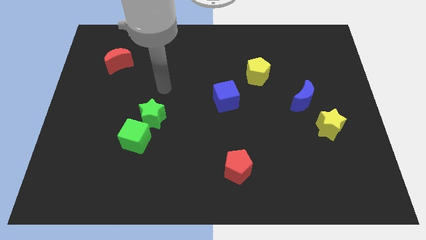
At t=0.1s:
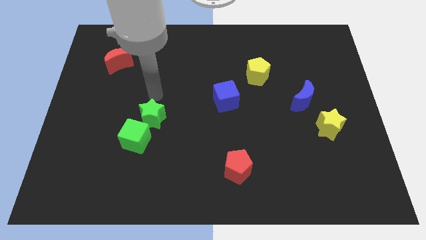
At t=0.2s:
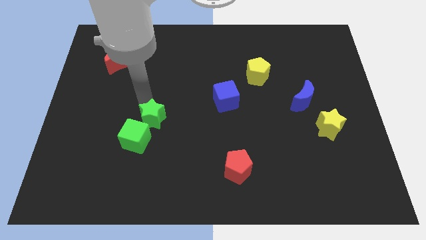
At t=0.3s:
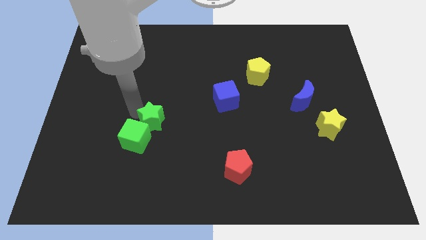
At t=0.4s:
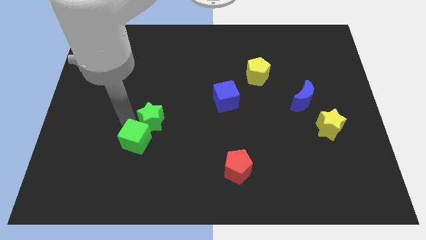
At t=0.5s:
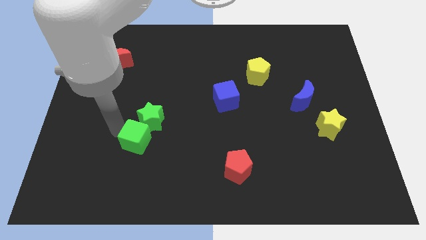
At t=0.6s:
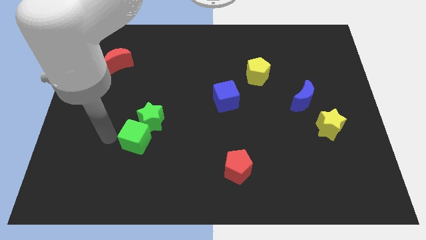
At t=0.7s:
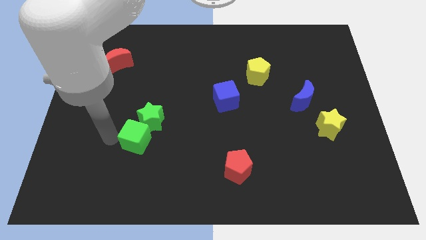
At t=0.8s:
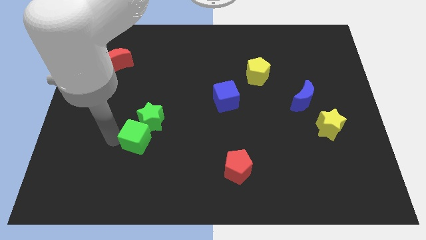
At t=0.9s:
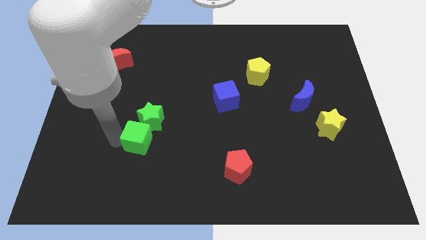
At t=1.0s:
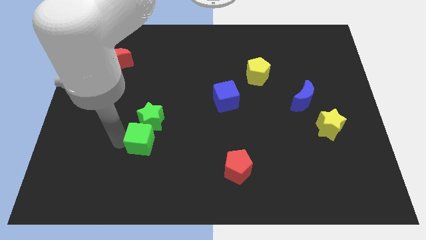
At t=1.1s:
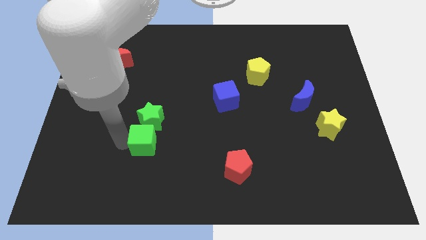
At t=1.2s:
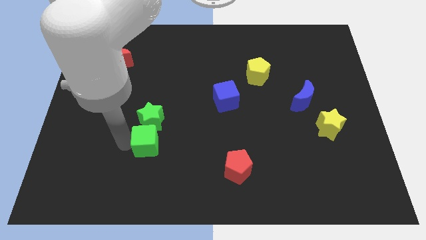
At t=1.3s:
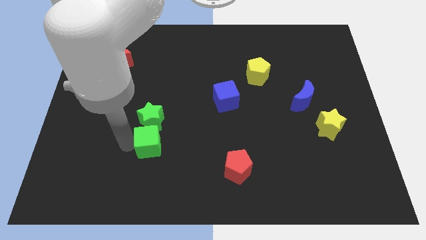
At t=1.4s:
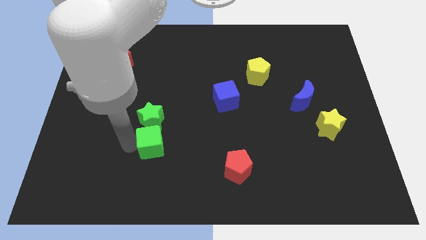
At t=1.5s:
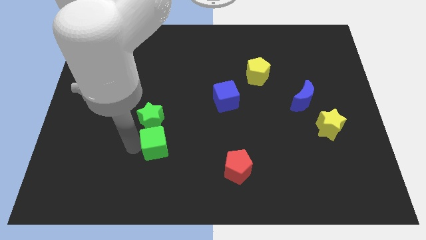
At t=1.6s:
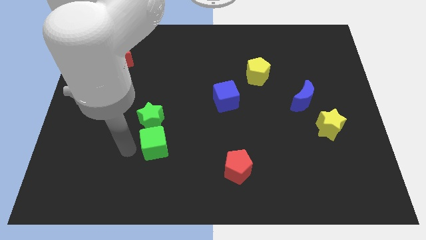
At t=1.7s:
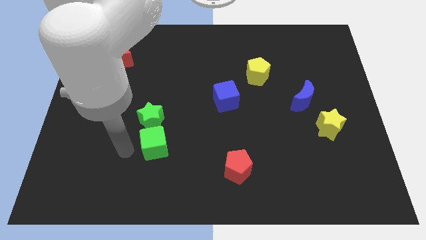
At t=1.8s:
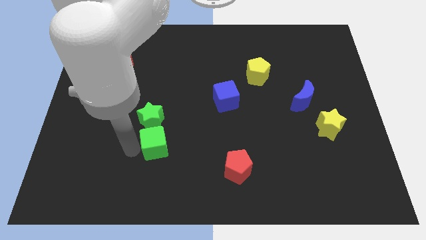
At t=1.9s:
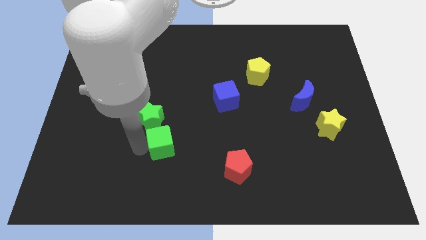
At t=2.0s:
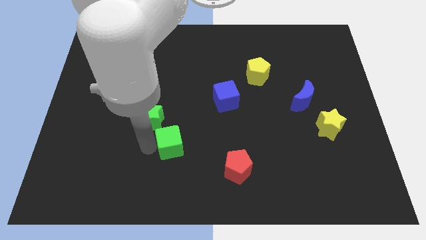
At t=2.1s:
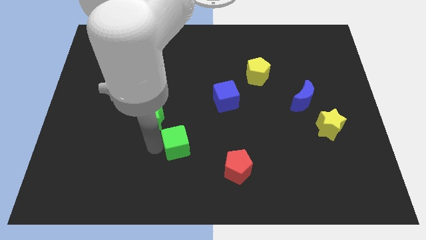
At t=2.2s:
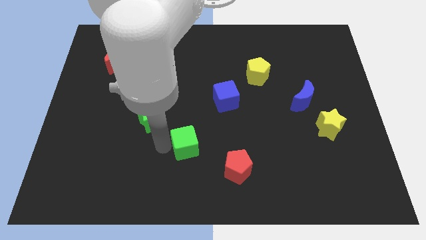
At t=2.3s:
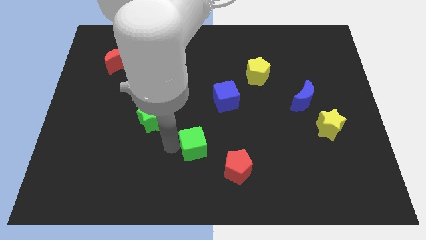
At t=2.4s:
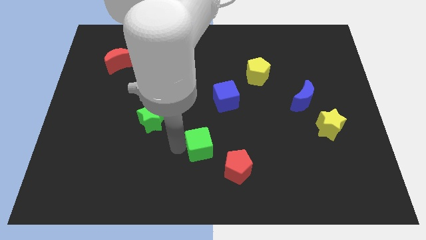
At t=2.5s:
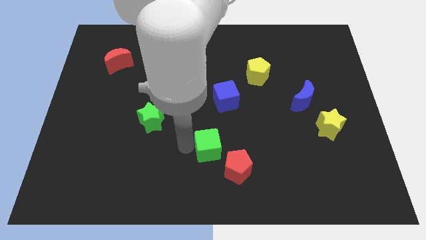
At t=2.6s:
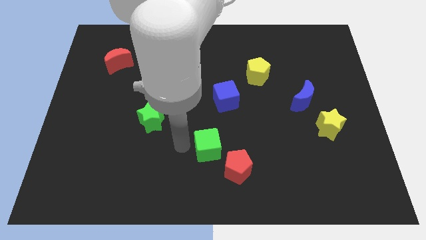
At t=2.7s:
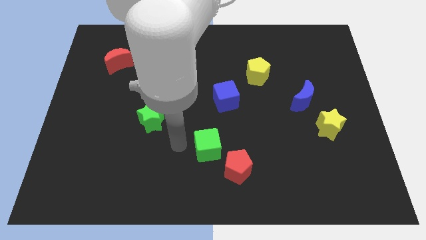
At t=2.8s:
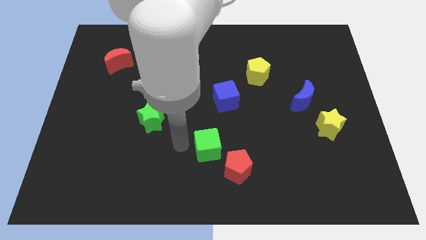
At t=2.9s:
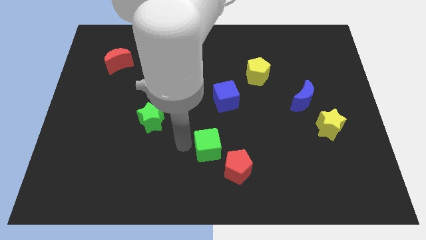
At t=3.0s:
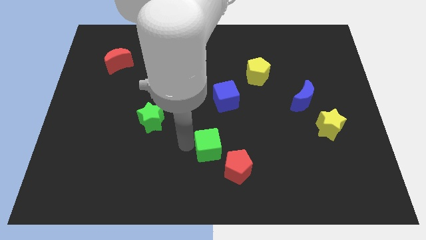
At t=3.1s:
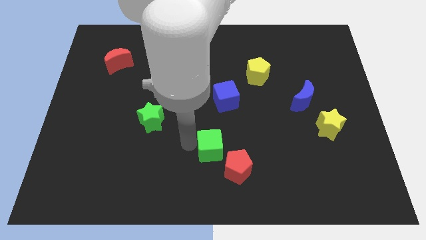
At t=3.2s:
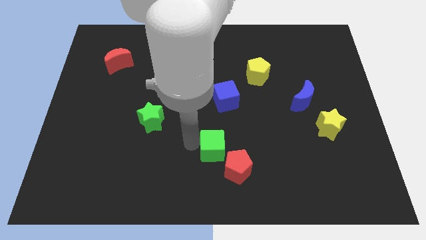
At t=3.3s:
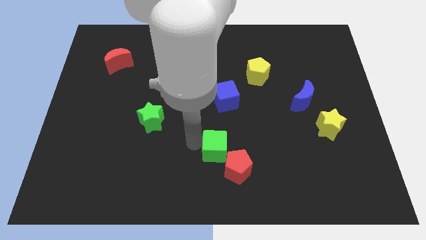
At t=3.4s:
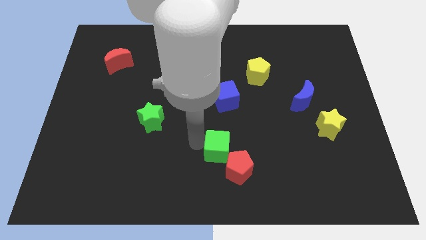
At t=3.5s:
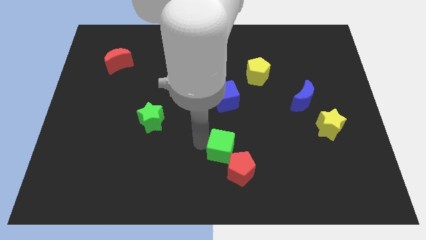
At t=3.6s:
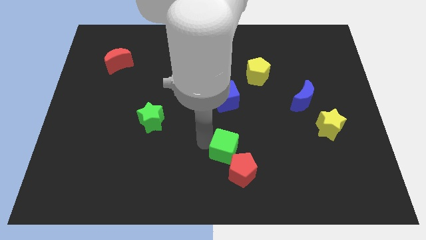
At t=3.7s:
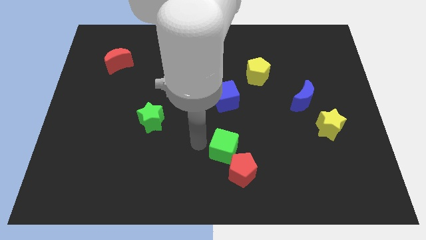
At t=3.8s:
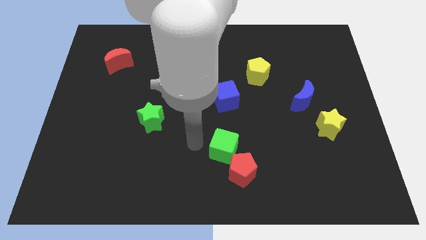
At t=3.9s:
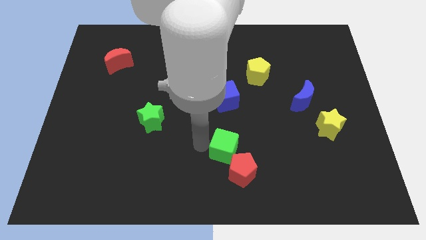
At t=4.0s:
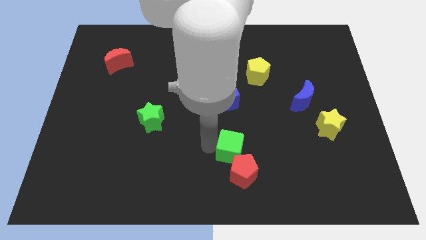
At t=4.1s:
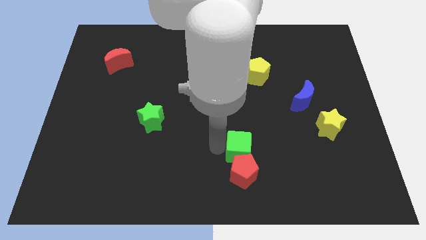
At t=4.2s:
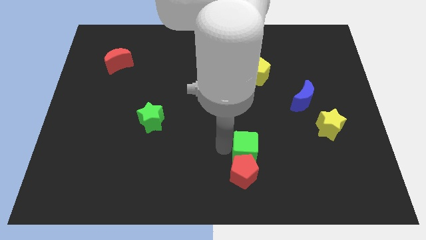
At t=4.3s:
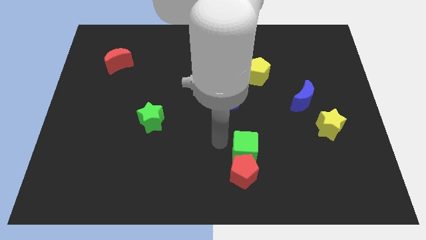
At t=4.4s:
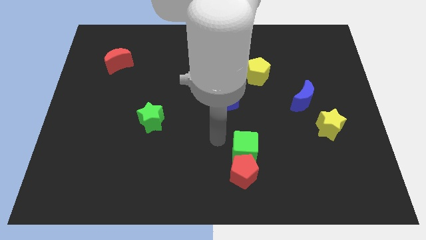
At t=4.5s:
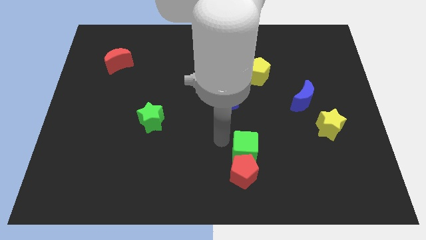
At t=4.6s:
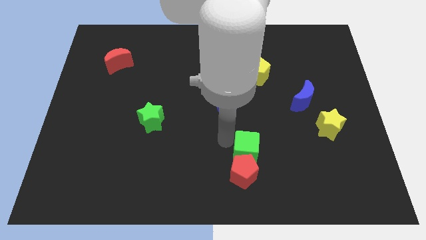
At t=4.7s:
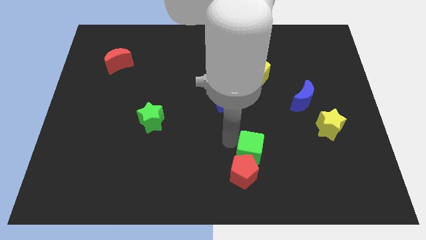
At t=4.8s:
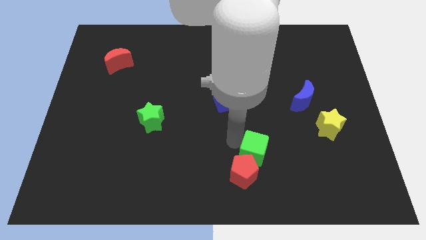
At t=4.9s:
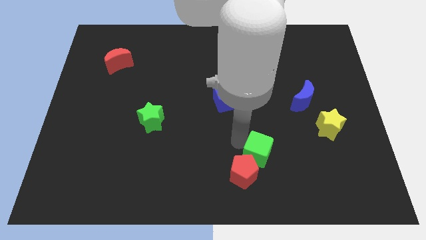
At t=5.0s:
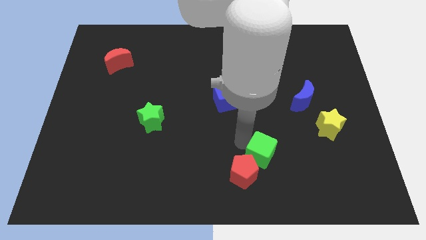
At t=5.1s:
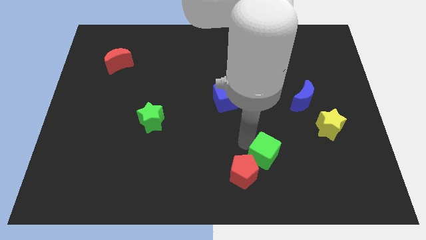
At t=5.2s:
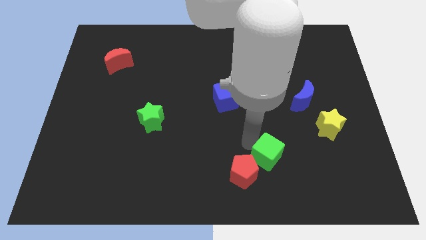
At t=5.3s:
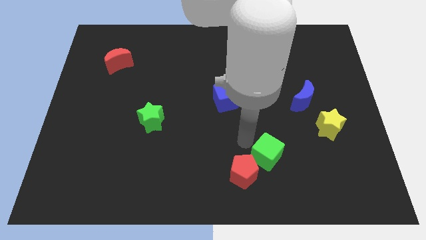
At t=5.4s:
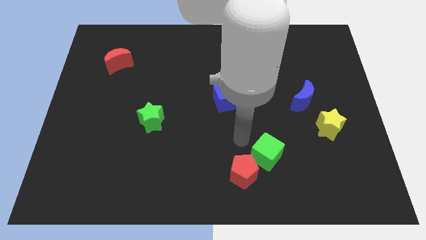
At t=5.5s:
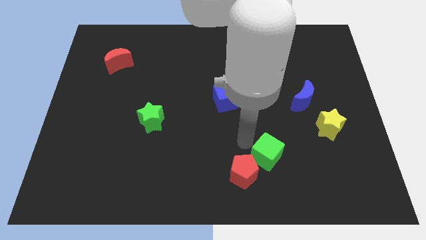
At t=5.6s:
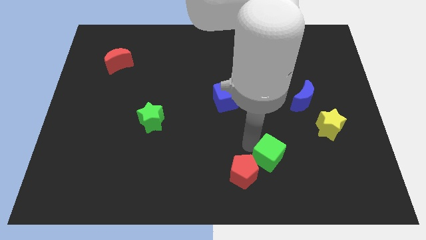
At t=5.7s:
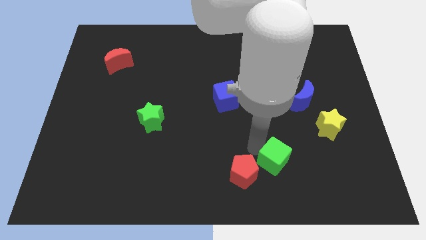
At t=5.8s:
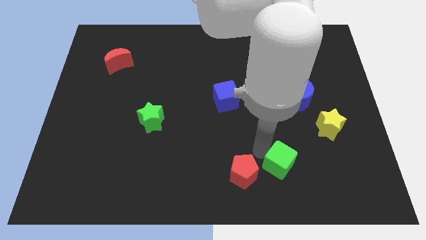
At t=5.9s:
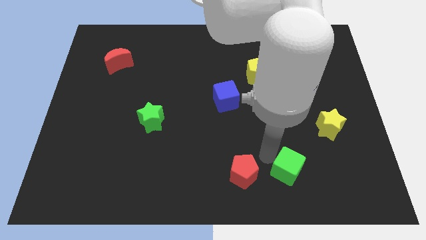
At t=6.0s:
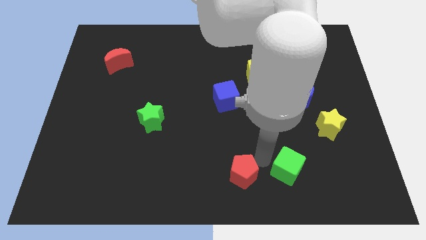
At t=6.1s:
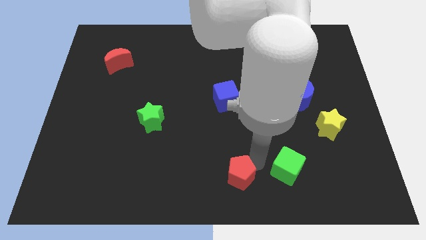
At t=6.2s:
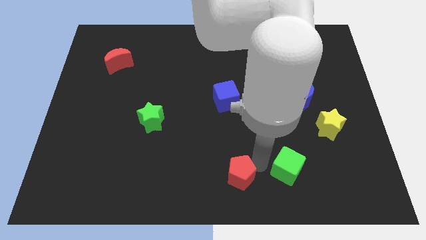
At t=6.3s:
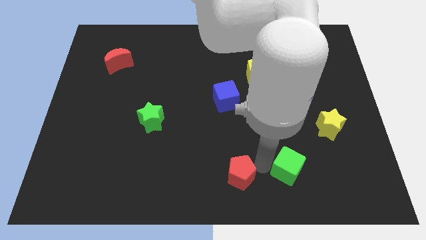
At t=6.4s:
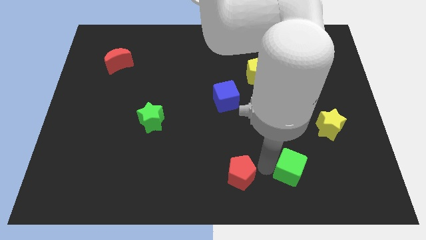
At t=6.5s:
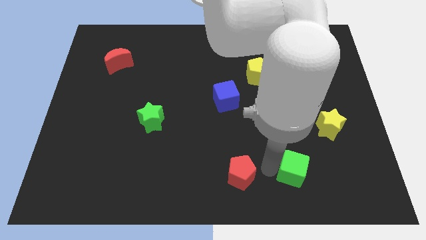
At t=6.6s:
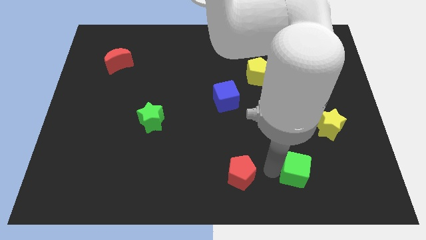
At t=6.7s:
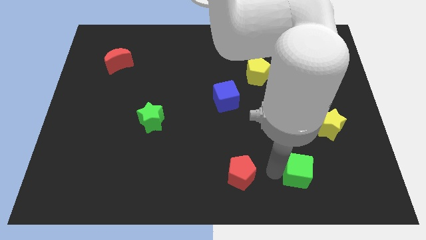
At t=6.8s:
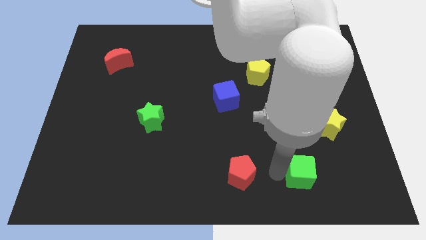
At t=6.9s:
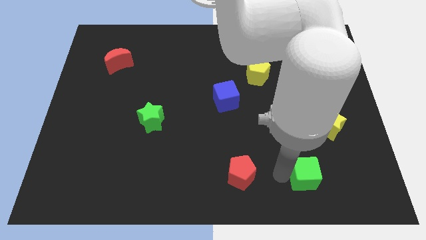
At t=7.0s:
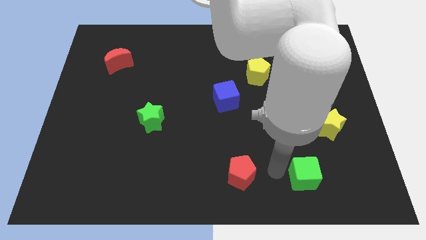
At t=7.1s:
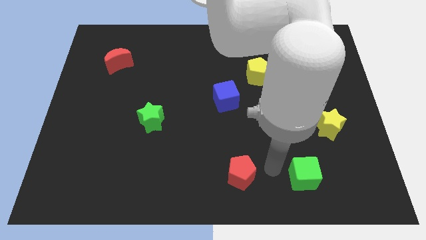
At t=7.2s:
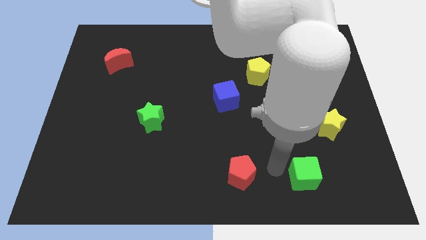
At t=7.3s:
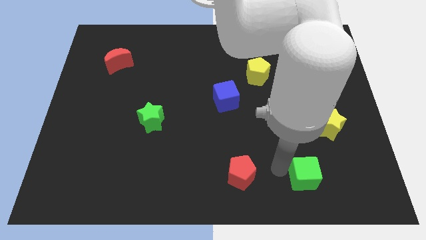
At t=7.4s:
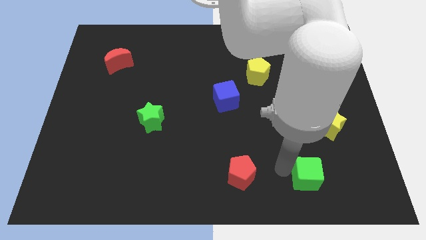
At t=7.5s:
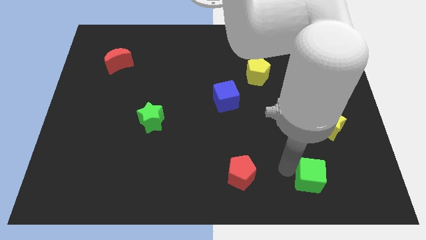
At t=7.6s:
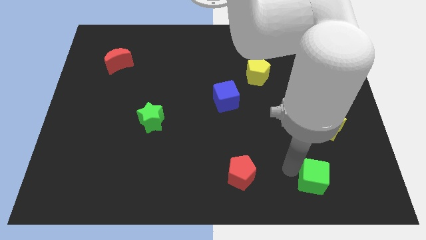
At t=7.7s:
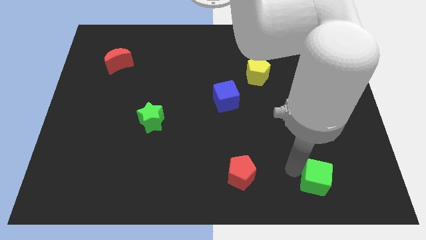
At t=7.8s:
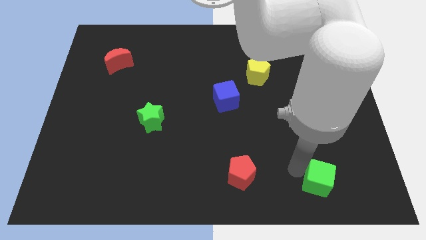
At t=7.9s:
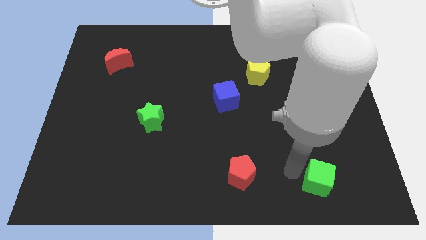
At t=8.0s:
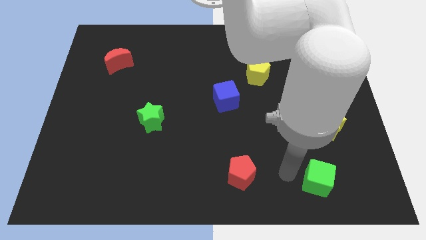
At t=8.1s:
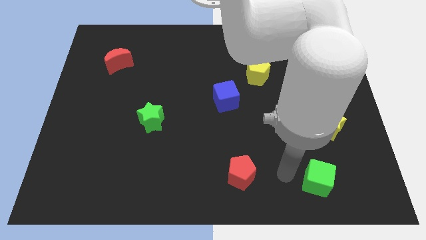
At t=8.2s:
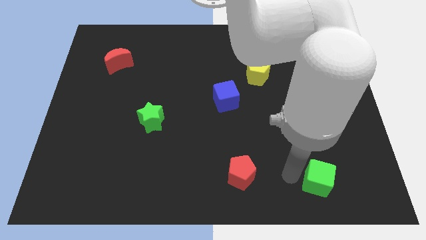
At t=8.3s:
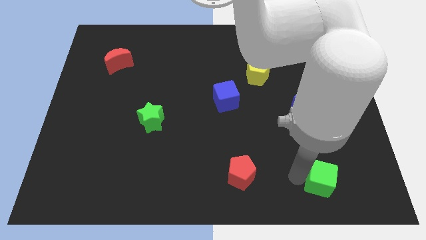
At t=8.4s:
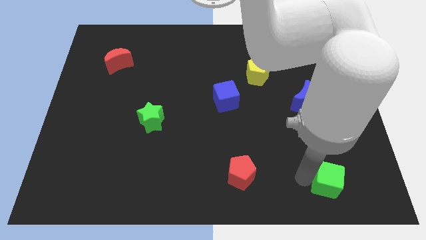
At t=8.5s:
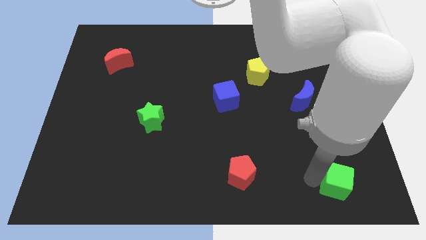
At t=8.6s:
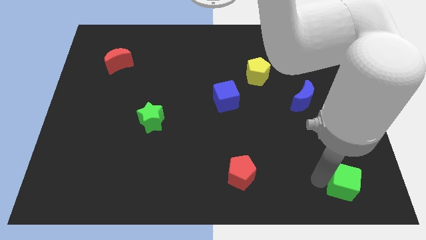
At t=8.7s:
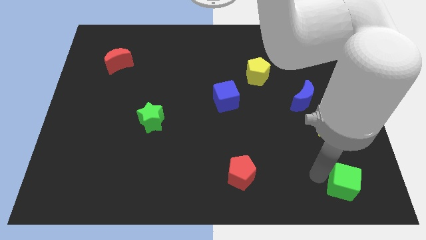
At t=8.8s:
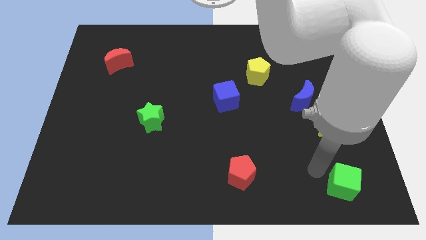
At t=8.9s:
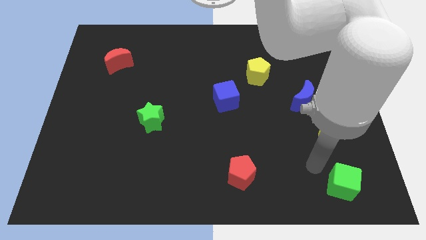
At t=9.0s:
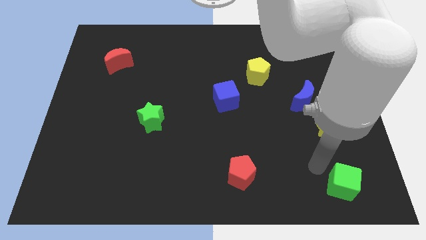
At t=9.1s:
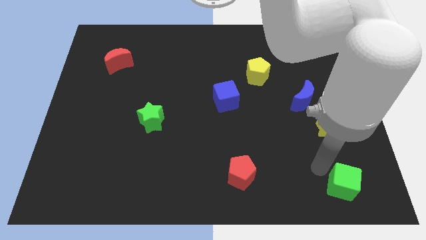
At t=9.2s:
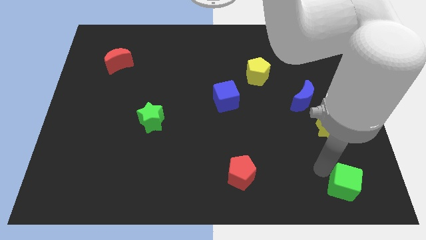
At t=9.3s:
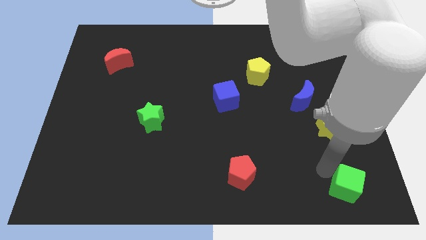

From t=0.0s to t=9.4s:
slide the green cube to the lower right corner
